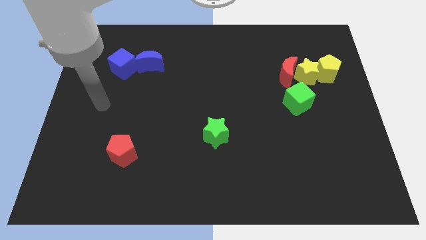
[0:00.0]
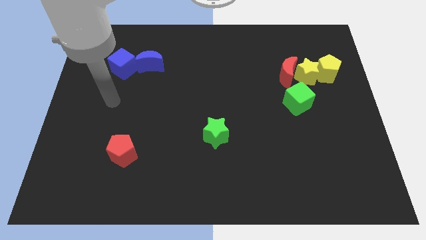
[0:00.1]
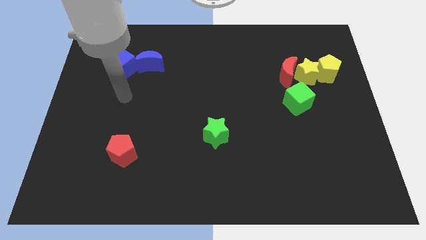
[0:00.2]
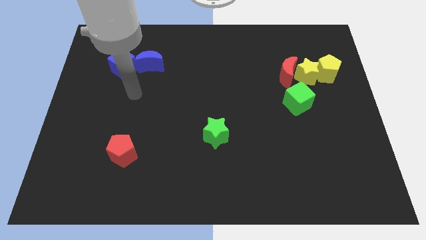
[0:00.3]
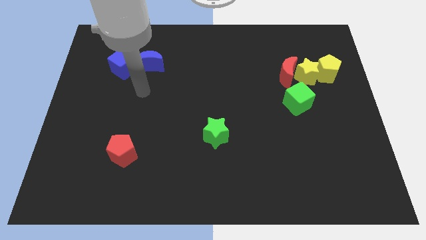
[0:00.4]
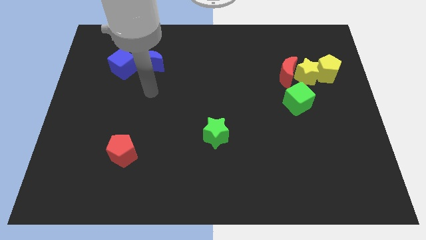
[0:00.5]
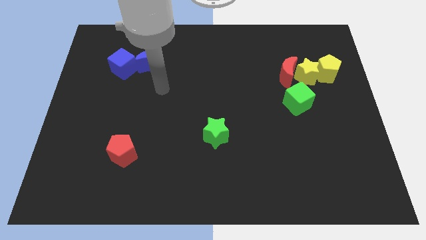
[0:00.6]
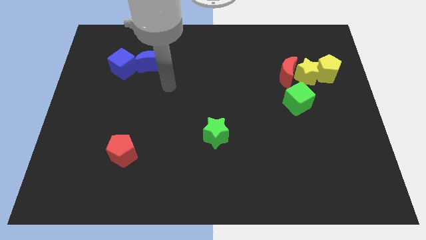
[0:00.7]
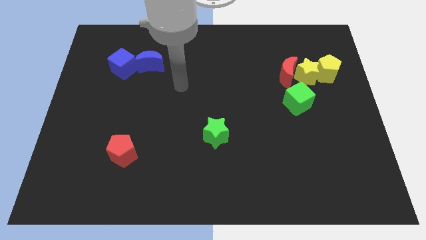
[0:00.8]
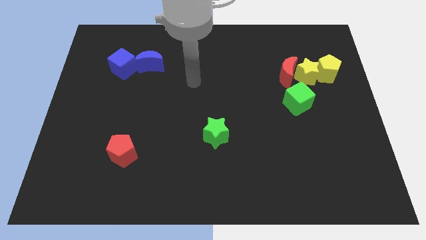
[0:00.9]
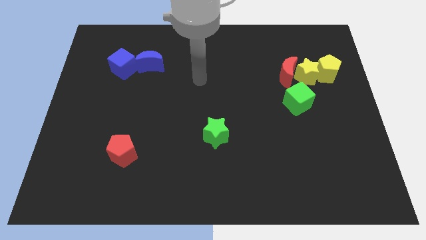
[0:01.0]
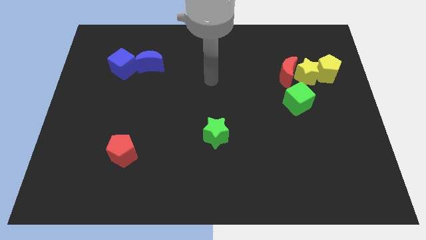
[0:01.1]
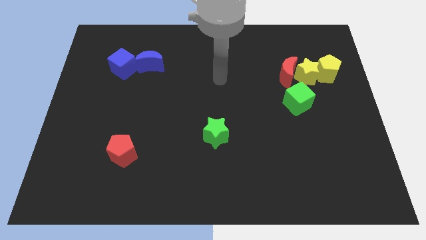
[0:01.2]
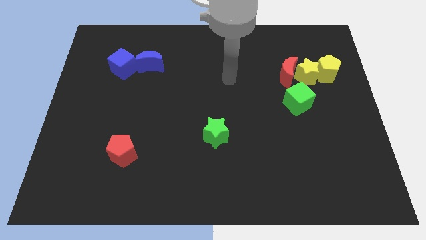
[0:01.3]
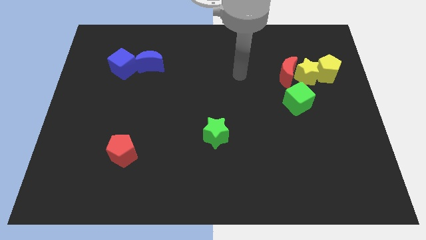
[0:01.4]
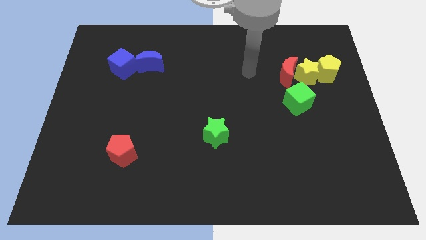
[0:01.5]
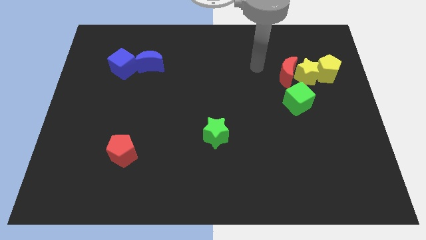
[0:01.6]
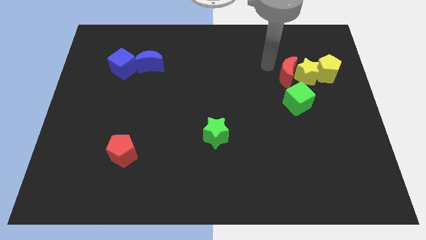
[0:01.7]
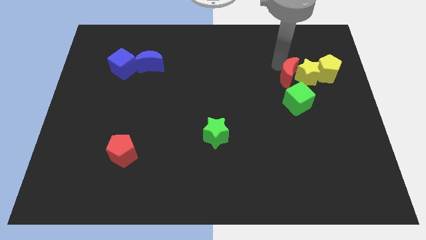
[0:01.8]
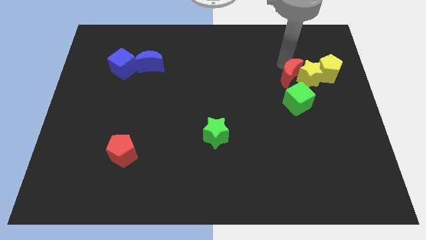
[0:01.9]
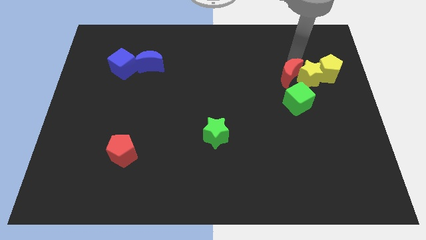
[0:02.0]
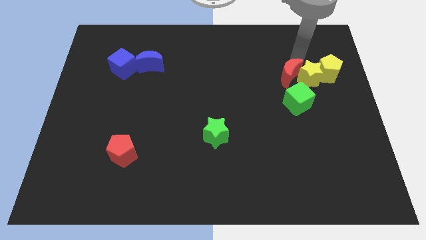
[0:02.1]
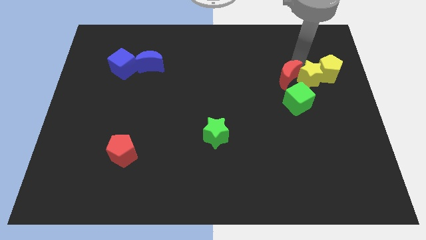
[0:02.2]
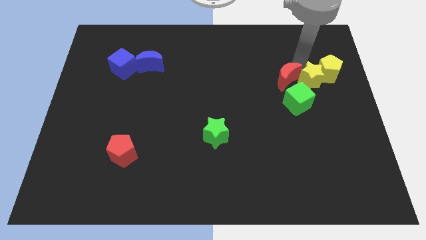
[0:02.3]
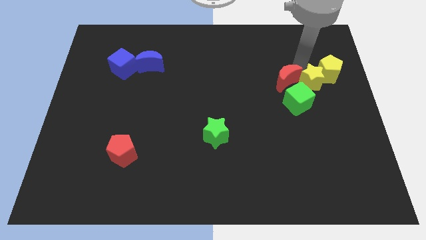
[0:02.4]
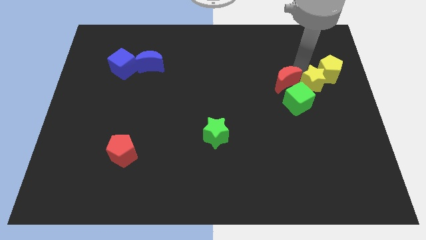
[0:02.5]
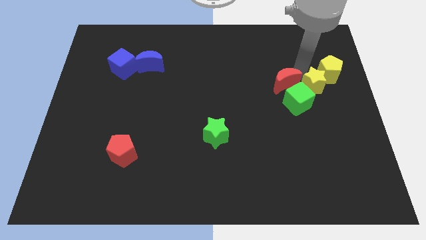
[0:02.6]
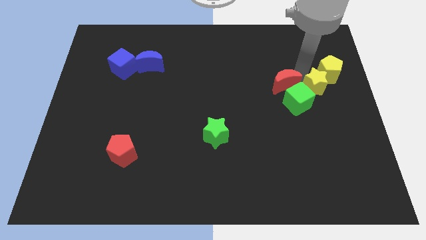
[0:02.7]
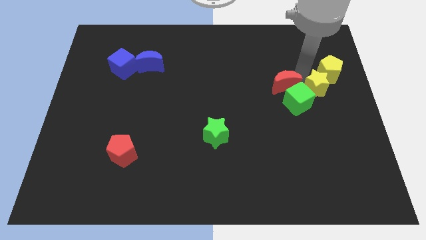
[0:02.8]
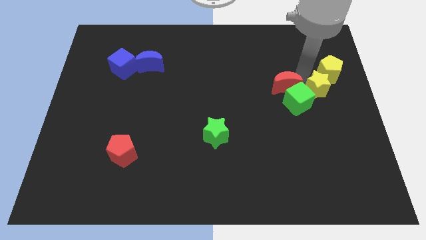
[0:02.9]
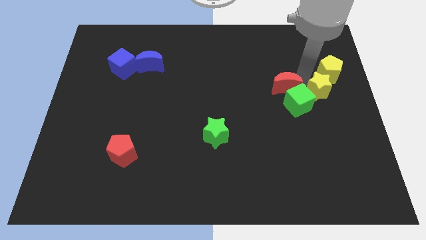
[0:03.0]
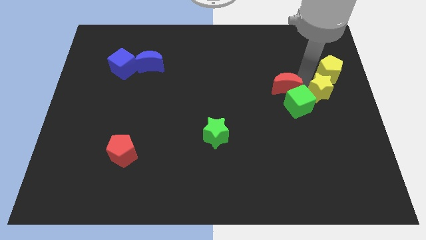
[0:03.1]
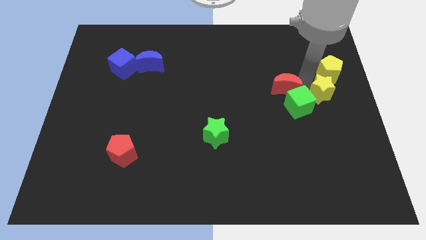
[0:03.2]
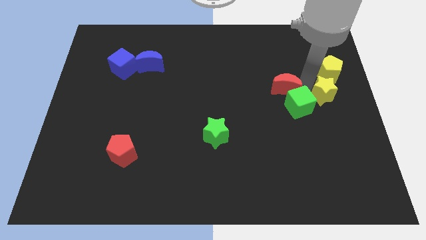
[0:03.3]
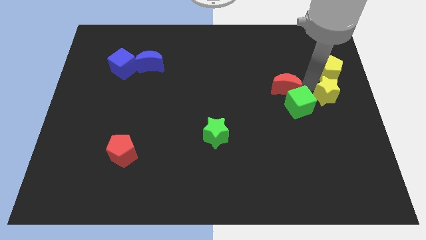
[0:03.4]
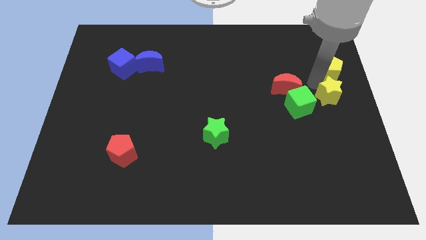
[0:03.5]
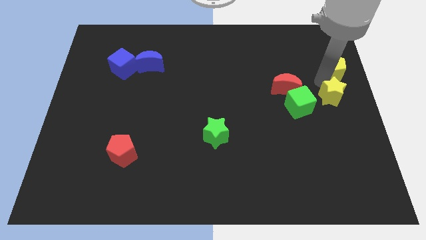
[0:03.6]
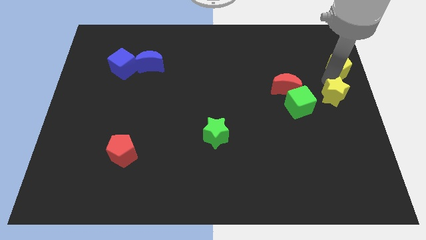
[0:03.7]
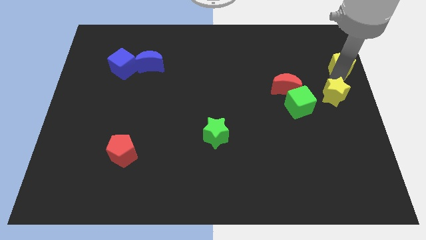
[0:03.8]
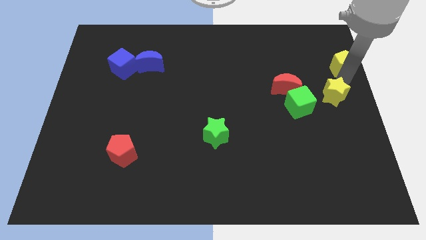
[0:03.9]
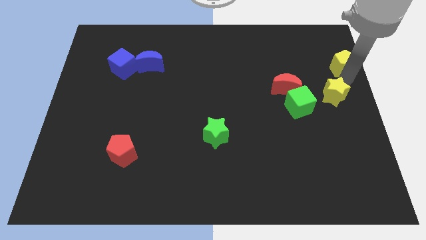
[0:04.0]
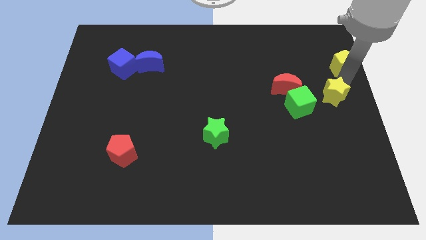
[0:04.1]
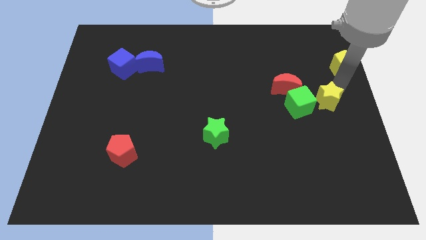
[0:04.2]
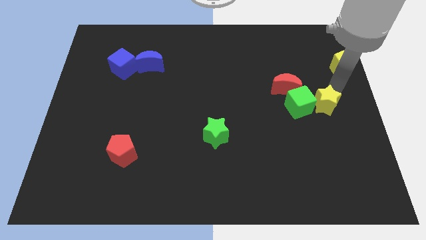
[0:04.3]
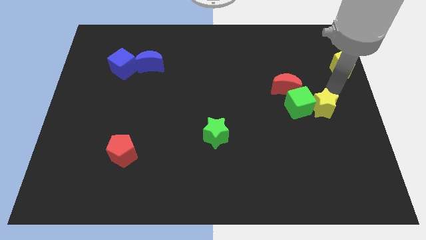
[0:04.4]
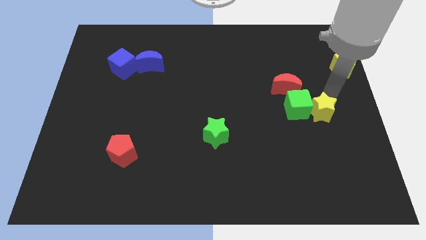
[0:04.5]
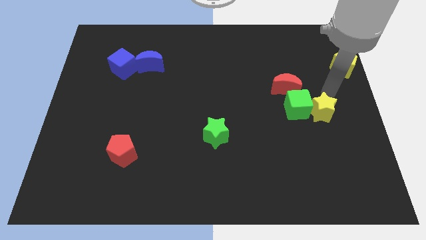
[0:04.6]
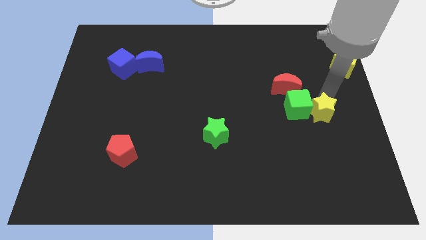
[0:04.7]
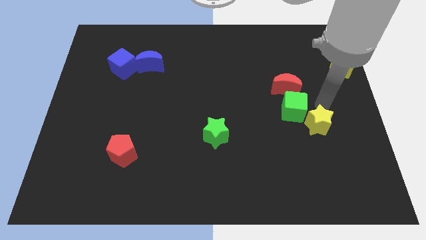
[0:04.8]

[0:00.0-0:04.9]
slide the yellow star below the green cube

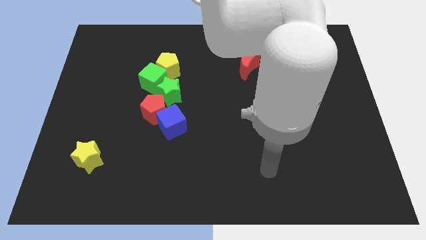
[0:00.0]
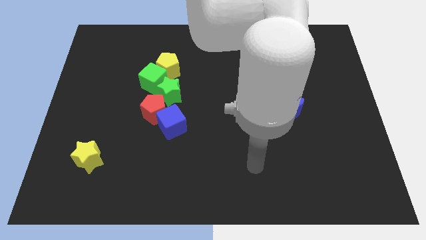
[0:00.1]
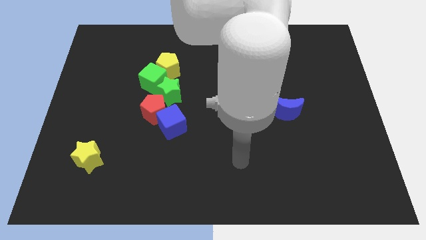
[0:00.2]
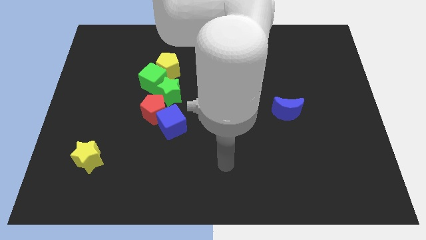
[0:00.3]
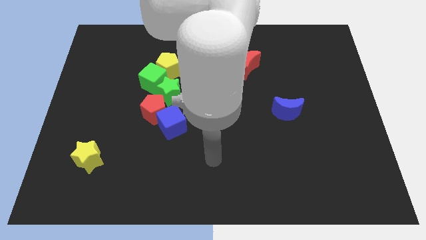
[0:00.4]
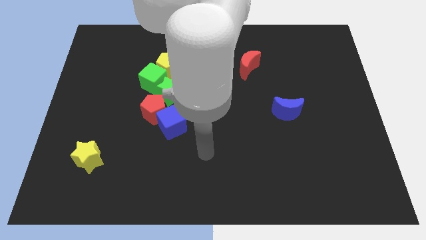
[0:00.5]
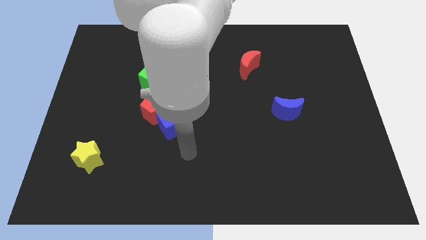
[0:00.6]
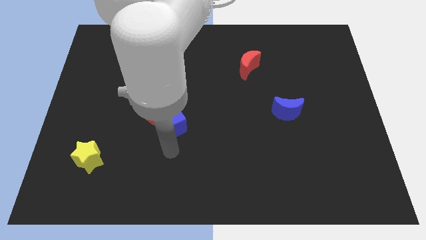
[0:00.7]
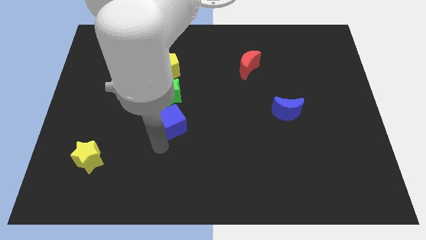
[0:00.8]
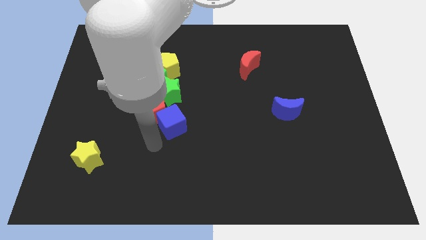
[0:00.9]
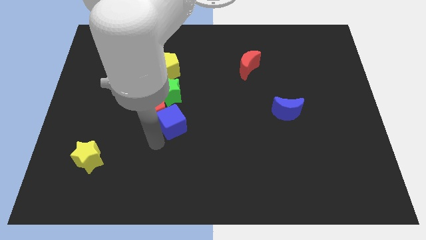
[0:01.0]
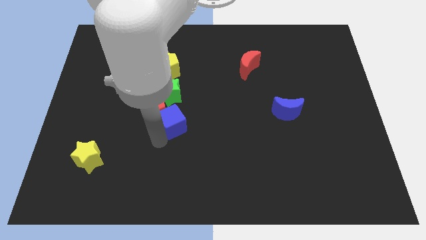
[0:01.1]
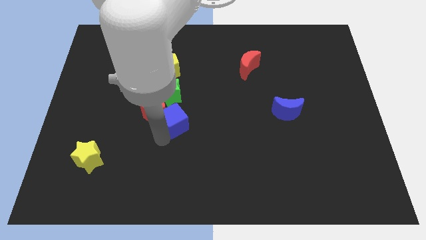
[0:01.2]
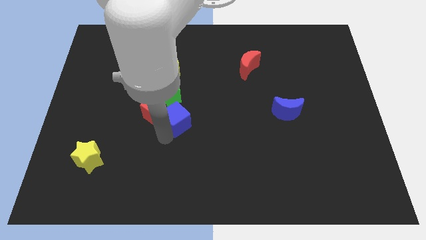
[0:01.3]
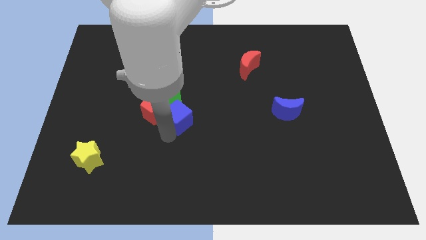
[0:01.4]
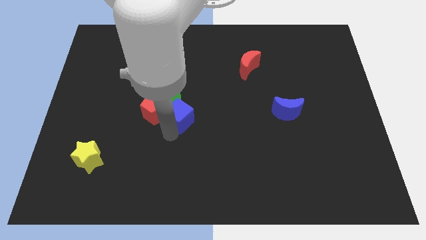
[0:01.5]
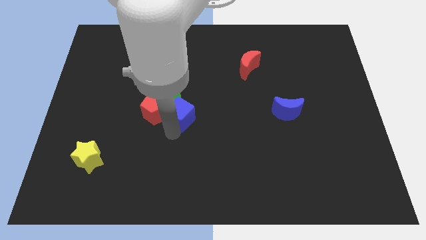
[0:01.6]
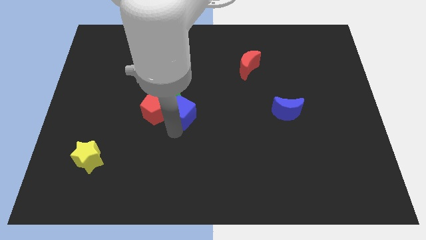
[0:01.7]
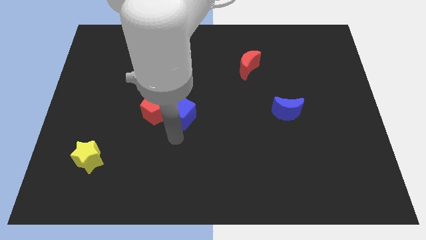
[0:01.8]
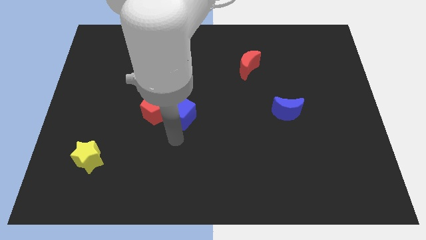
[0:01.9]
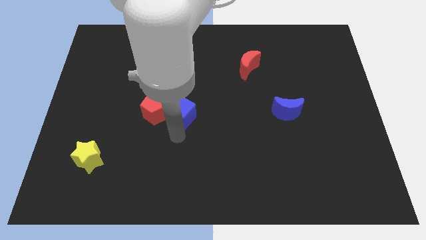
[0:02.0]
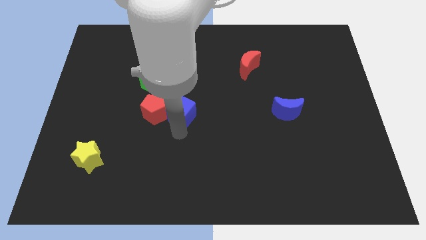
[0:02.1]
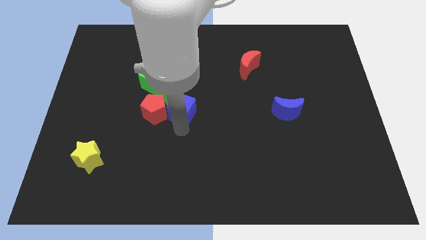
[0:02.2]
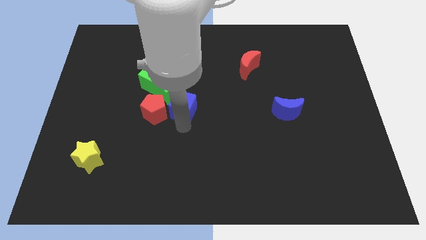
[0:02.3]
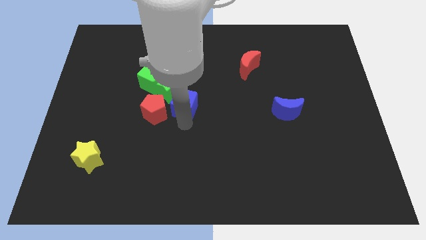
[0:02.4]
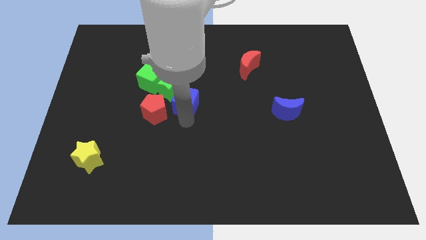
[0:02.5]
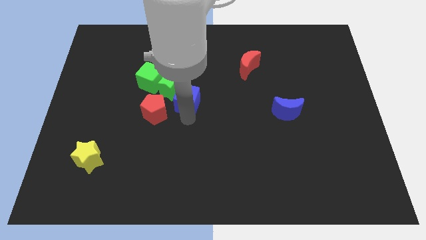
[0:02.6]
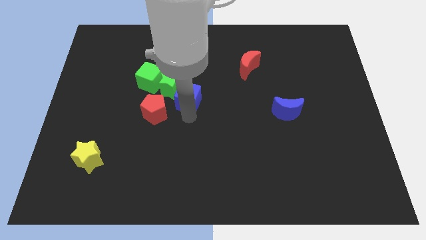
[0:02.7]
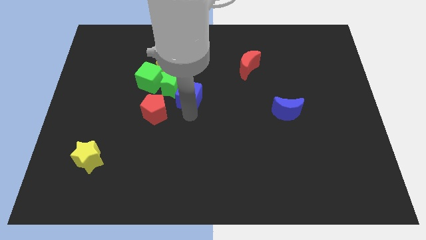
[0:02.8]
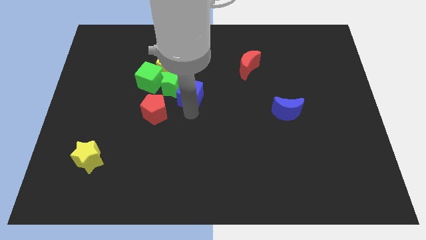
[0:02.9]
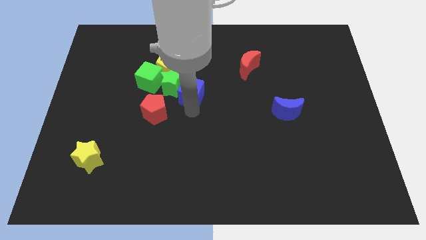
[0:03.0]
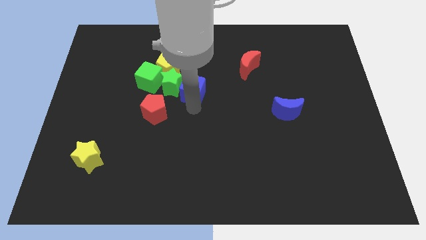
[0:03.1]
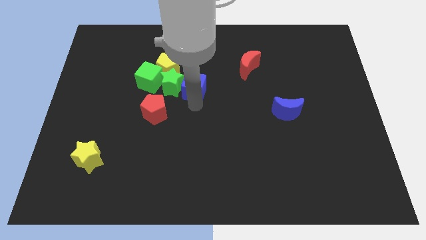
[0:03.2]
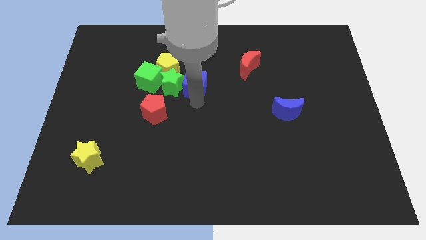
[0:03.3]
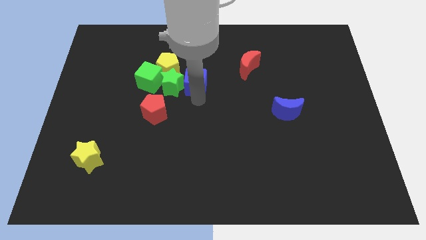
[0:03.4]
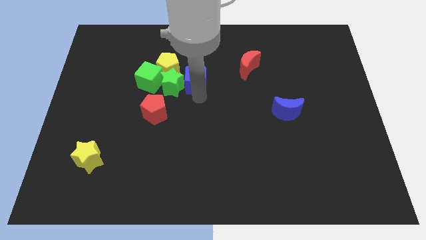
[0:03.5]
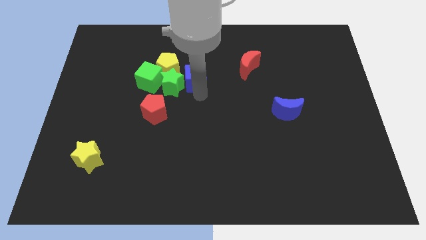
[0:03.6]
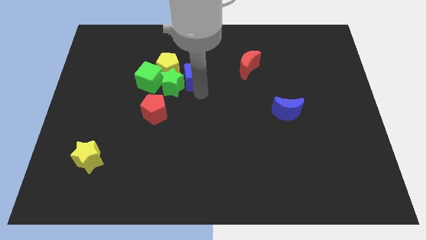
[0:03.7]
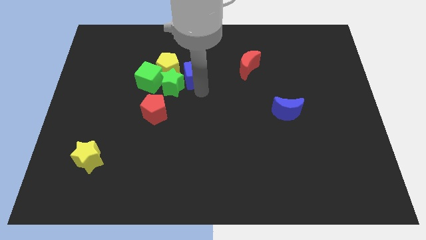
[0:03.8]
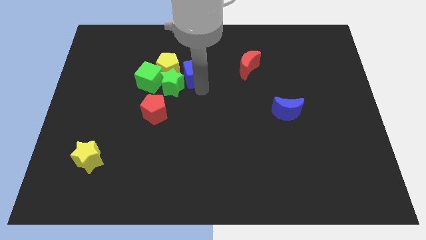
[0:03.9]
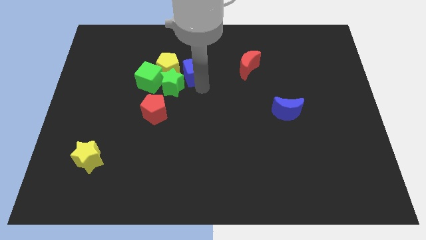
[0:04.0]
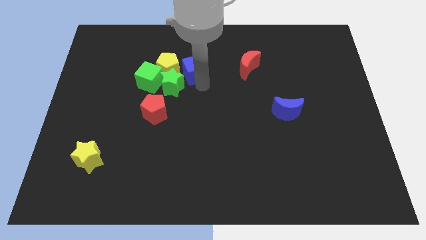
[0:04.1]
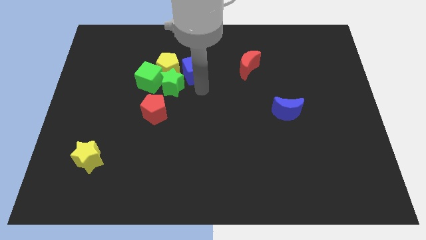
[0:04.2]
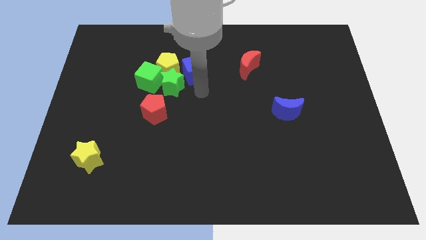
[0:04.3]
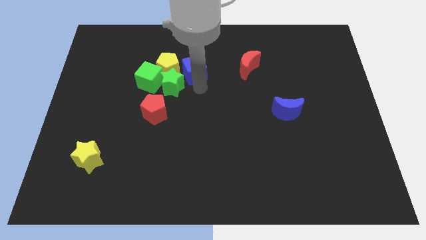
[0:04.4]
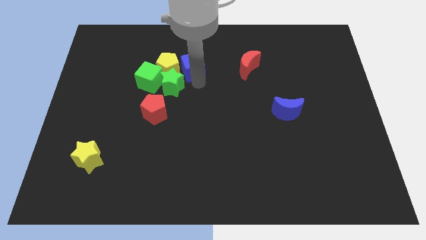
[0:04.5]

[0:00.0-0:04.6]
move the blue cube to the top right of the yellow pentagon
